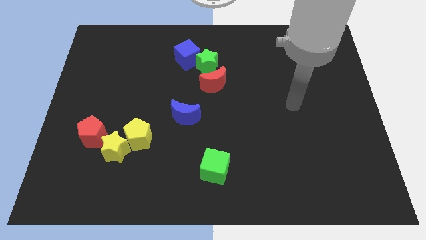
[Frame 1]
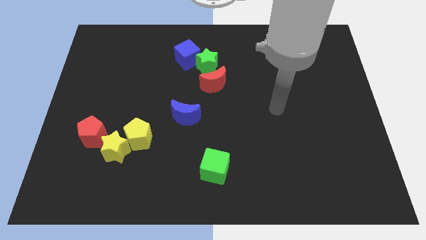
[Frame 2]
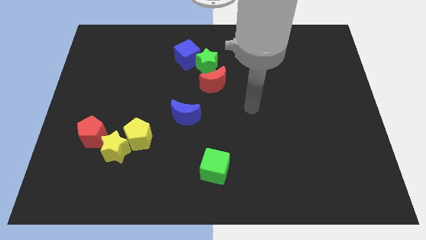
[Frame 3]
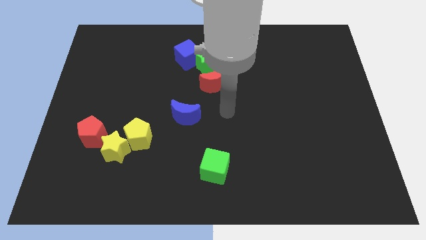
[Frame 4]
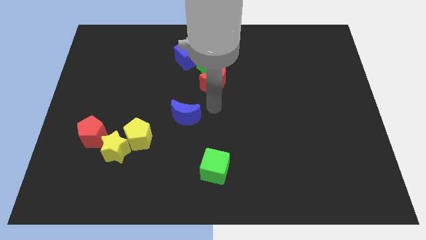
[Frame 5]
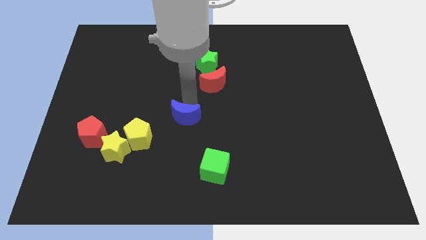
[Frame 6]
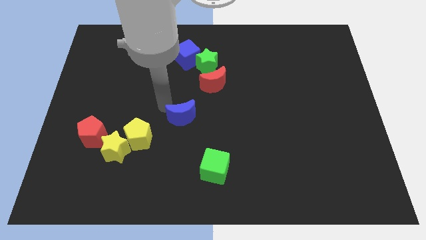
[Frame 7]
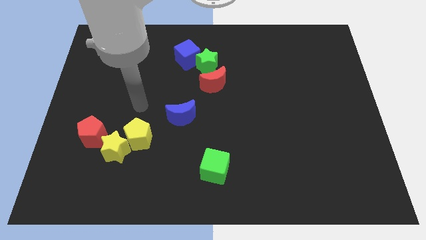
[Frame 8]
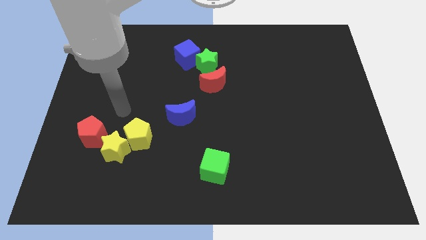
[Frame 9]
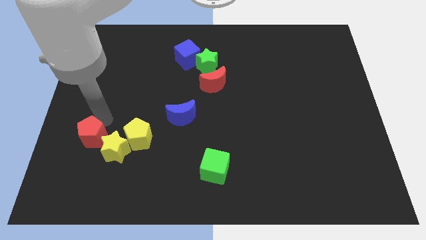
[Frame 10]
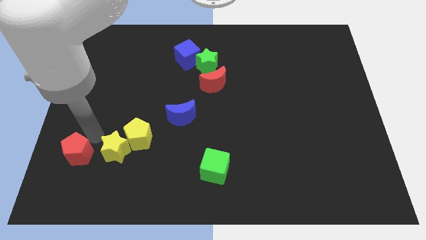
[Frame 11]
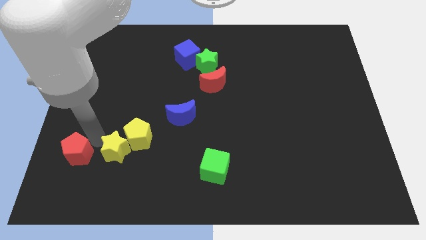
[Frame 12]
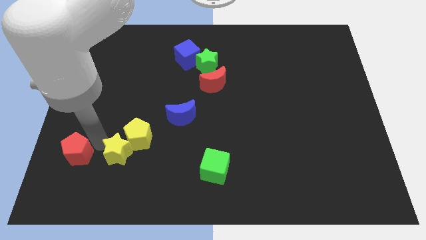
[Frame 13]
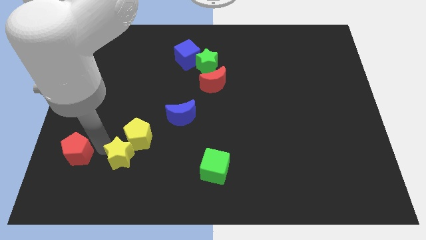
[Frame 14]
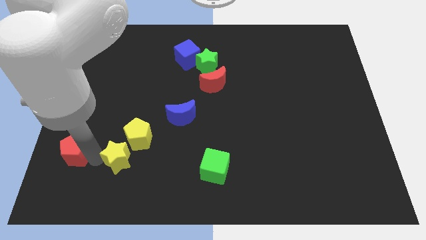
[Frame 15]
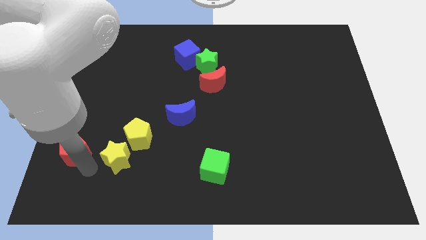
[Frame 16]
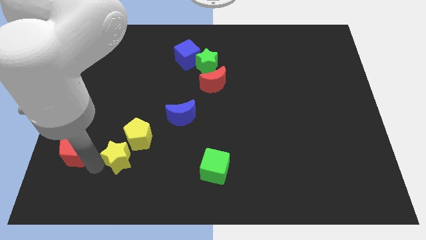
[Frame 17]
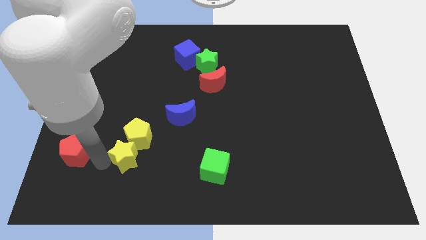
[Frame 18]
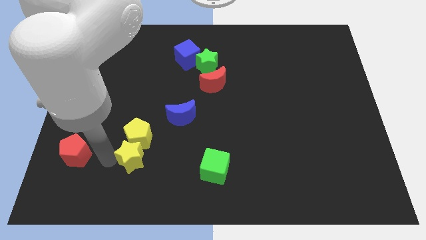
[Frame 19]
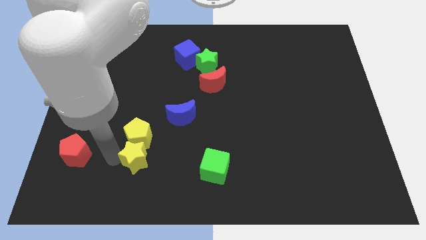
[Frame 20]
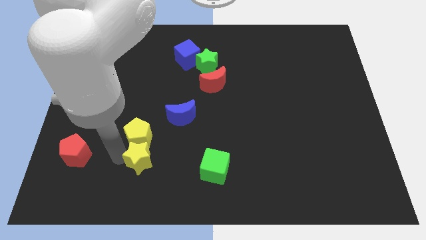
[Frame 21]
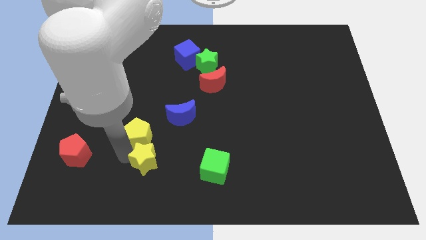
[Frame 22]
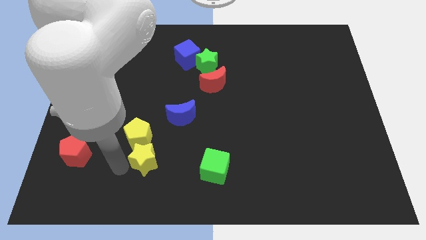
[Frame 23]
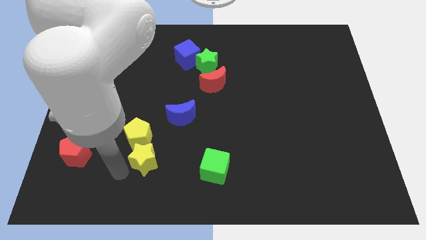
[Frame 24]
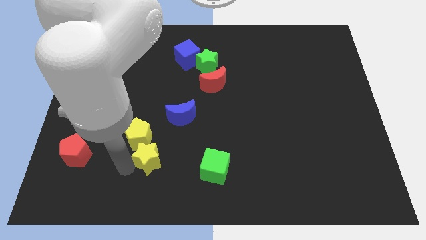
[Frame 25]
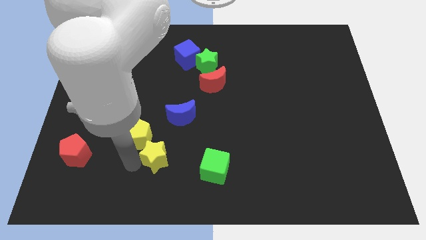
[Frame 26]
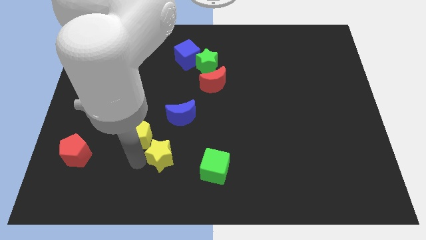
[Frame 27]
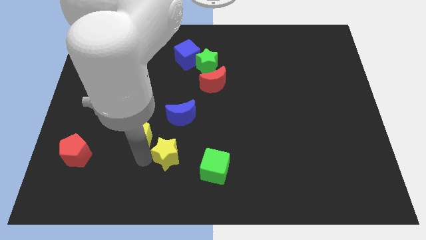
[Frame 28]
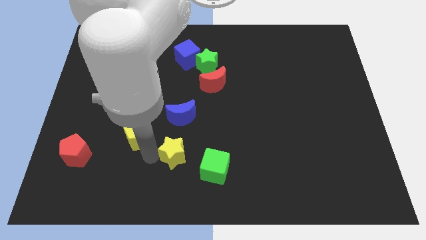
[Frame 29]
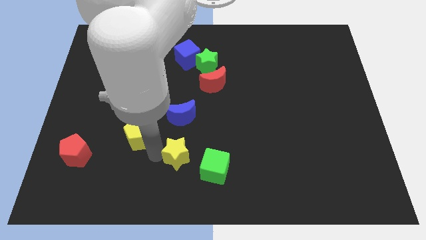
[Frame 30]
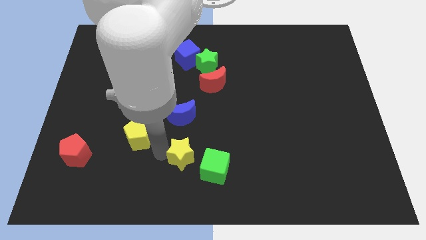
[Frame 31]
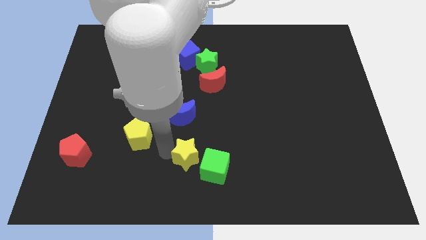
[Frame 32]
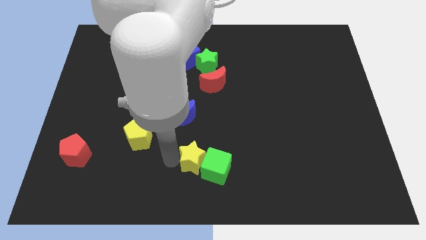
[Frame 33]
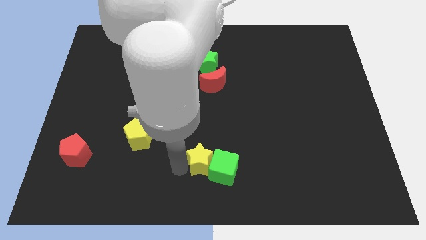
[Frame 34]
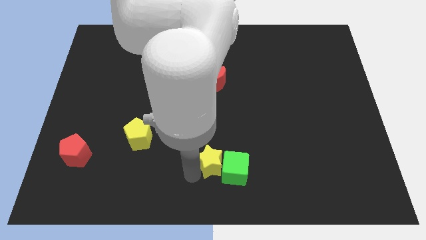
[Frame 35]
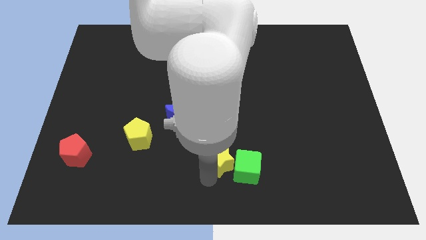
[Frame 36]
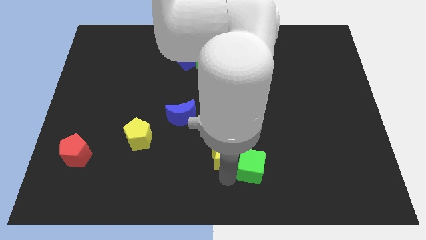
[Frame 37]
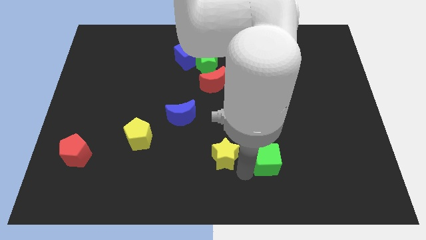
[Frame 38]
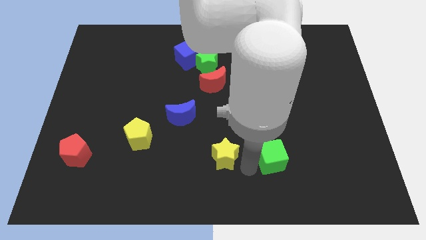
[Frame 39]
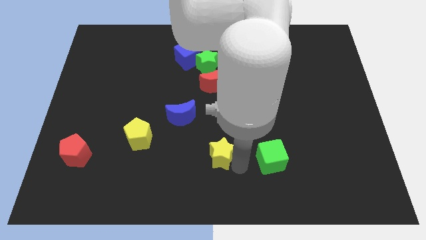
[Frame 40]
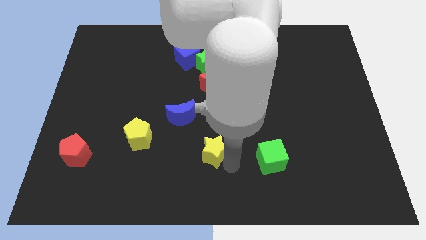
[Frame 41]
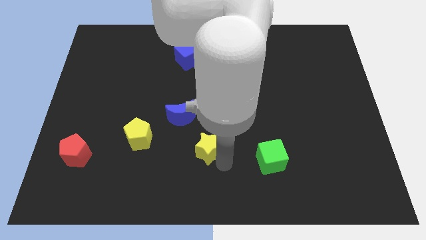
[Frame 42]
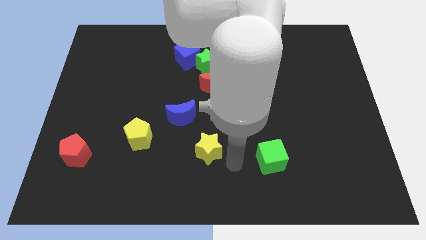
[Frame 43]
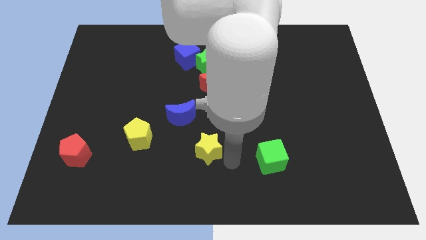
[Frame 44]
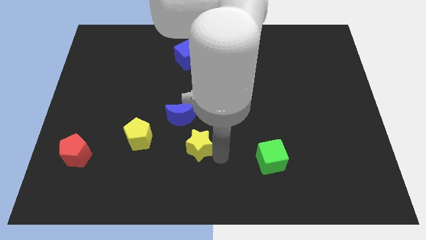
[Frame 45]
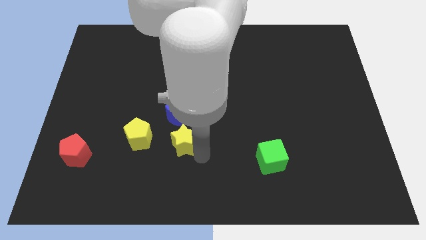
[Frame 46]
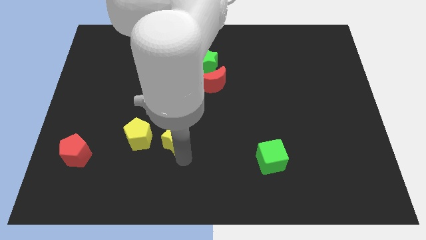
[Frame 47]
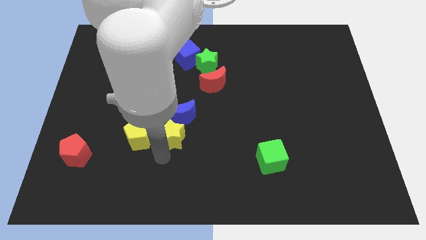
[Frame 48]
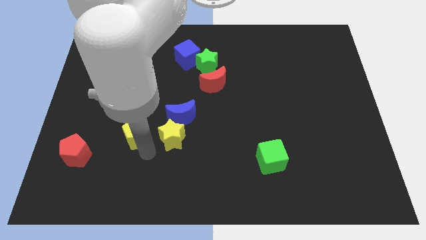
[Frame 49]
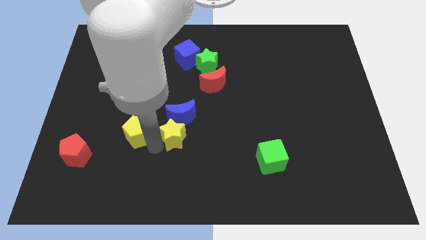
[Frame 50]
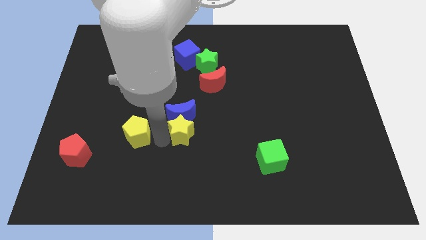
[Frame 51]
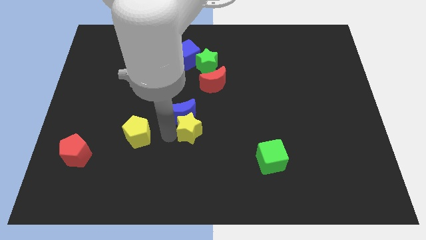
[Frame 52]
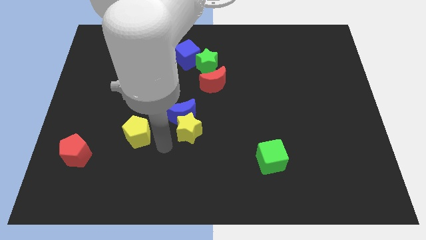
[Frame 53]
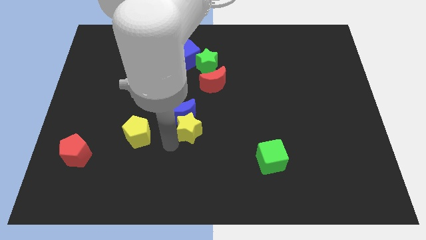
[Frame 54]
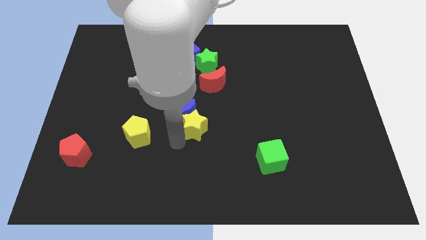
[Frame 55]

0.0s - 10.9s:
move the yellow star to the bottom of the red moon

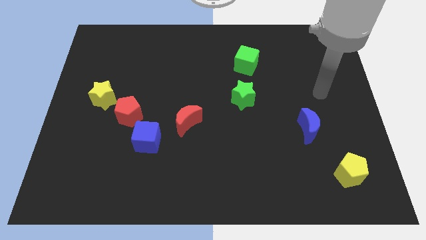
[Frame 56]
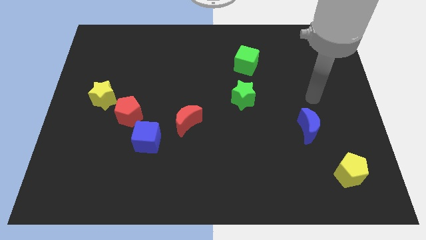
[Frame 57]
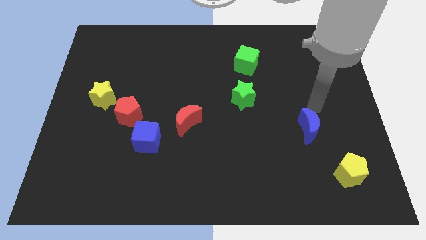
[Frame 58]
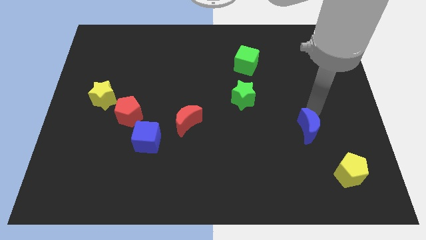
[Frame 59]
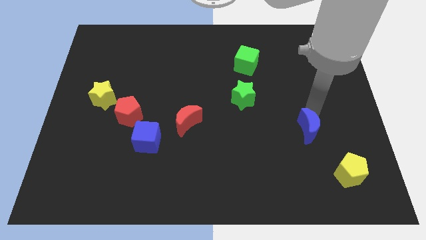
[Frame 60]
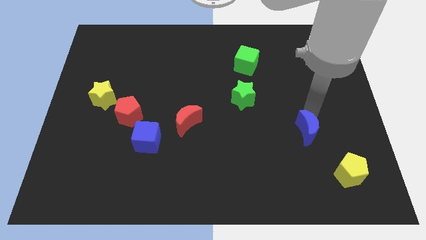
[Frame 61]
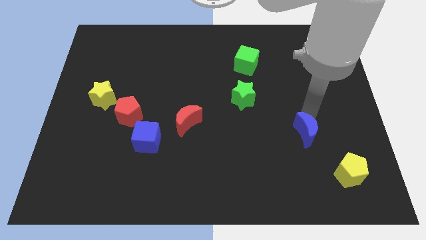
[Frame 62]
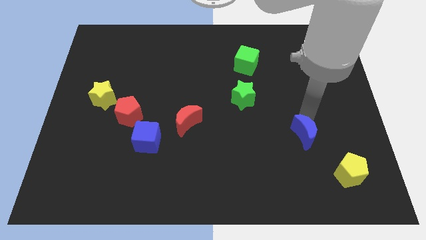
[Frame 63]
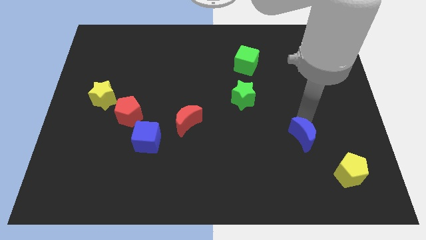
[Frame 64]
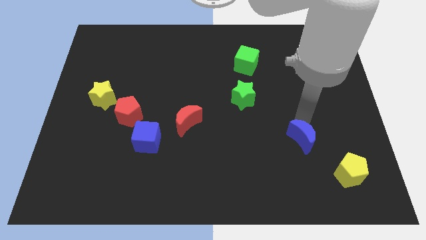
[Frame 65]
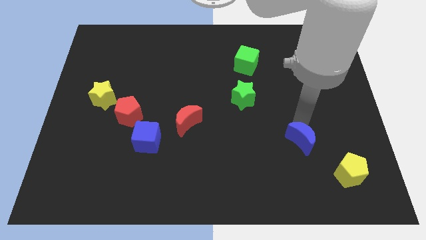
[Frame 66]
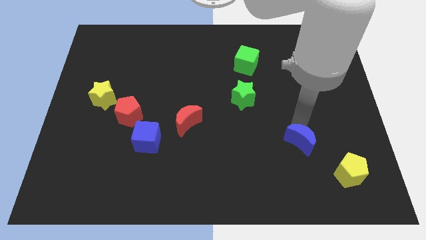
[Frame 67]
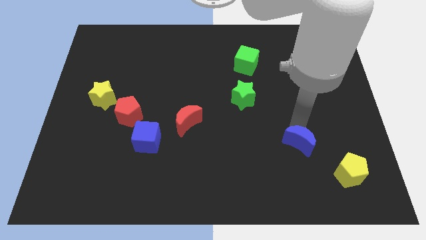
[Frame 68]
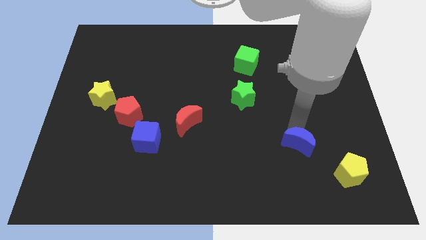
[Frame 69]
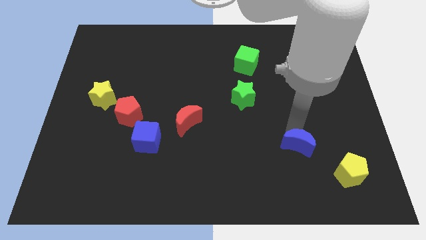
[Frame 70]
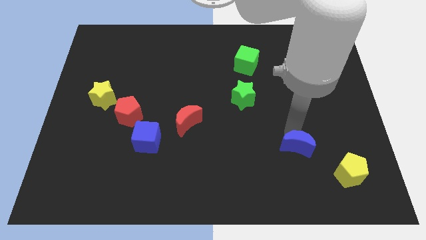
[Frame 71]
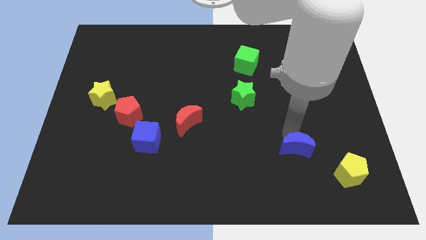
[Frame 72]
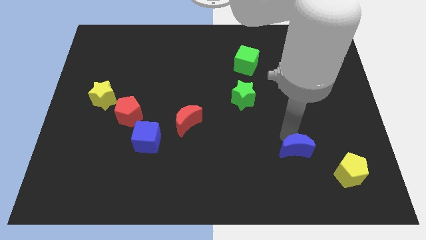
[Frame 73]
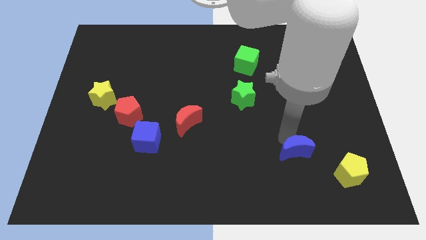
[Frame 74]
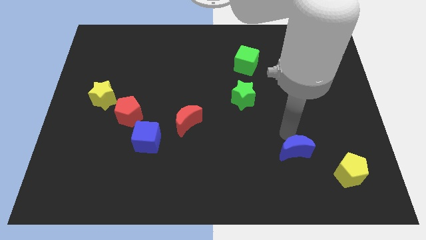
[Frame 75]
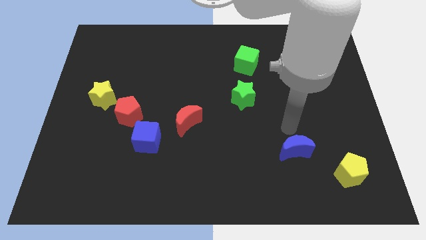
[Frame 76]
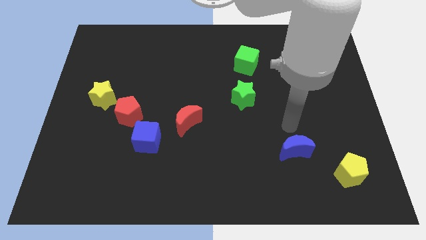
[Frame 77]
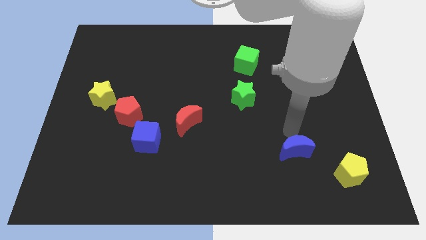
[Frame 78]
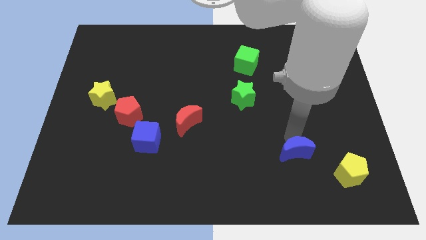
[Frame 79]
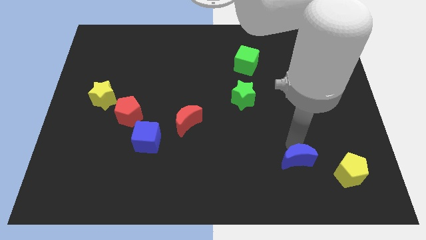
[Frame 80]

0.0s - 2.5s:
push the blue moon just left of the yellow pentagon
